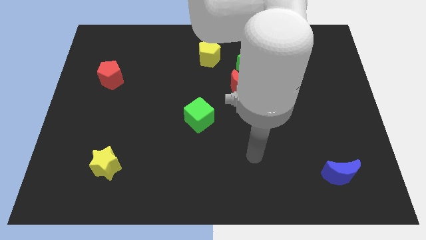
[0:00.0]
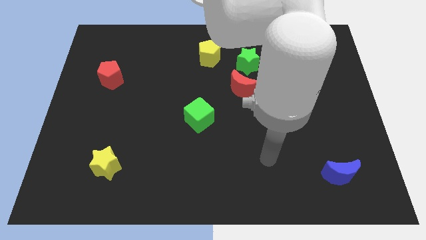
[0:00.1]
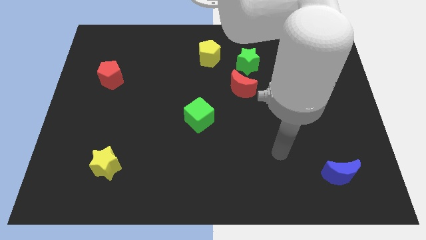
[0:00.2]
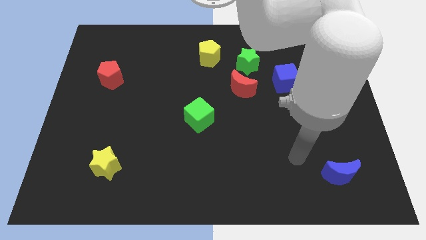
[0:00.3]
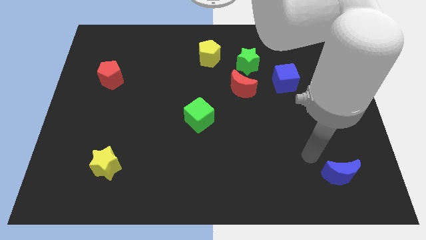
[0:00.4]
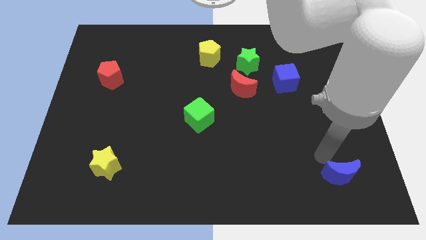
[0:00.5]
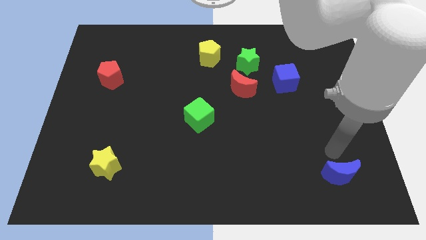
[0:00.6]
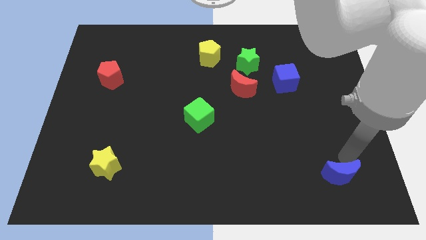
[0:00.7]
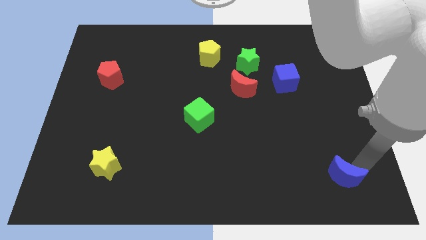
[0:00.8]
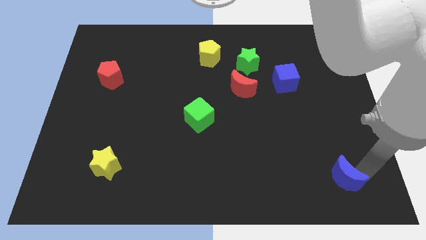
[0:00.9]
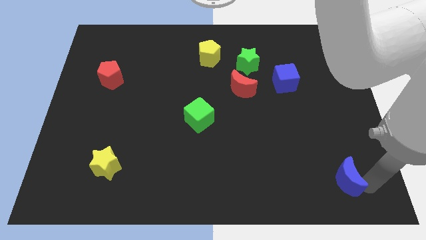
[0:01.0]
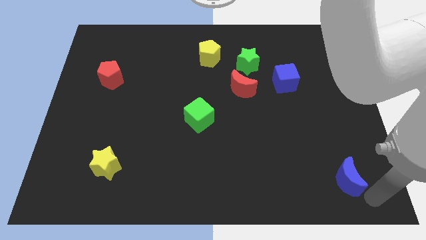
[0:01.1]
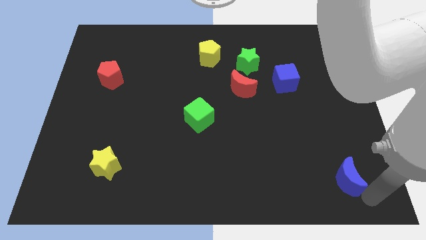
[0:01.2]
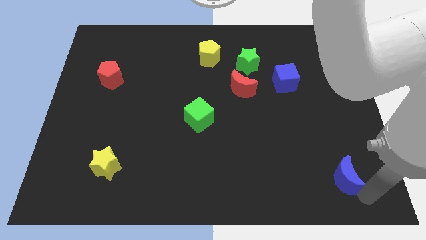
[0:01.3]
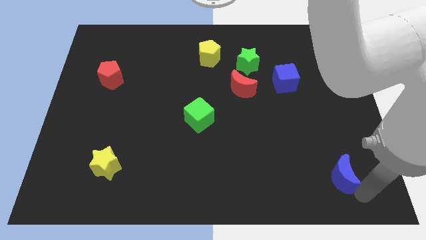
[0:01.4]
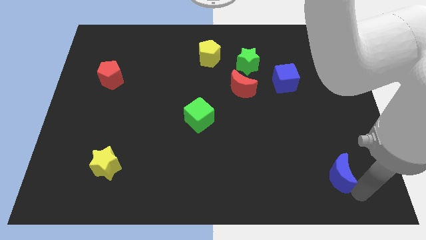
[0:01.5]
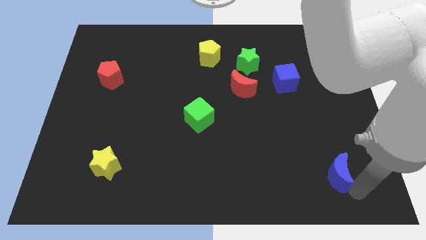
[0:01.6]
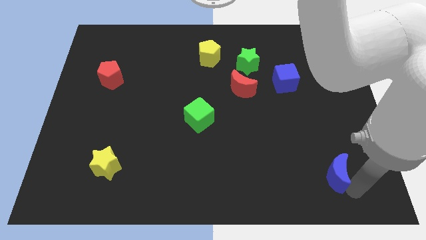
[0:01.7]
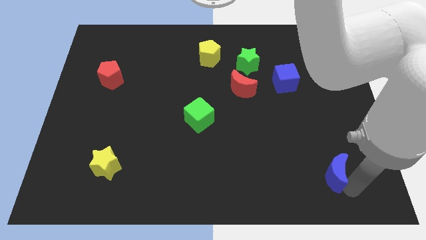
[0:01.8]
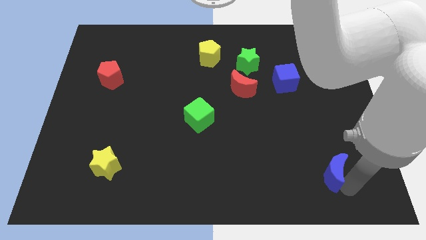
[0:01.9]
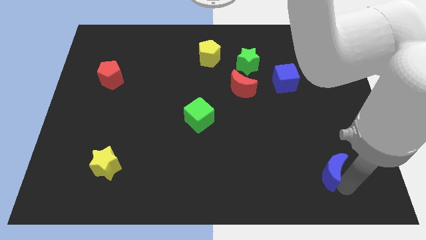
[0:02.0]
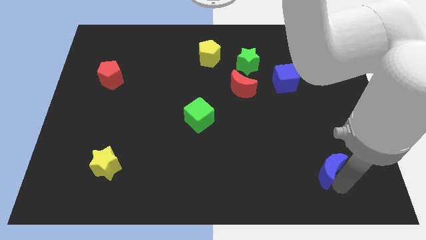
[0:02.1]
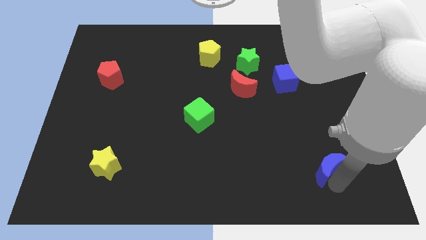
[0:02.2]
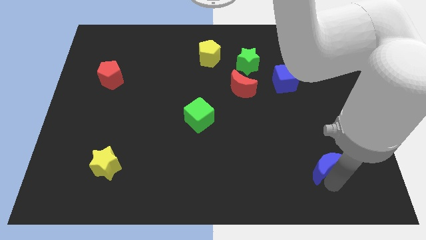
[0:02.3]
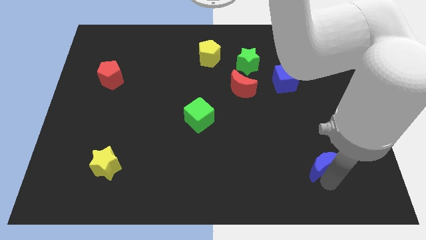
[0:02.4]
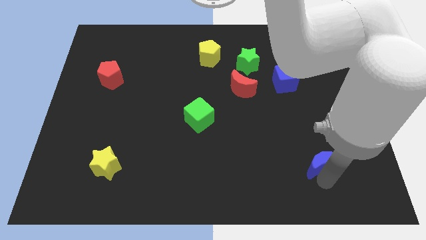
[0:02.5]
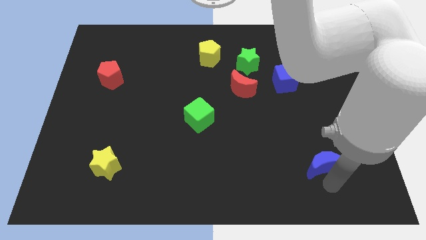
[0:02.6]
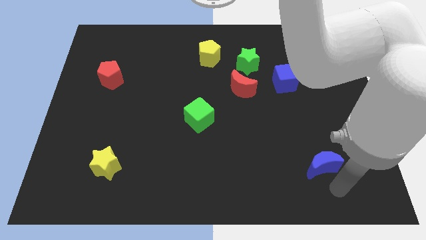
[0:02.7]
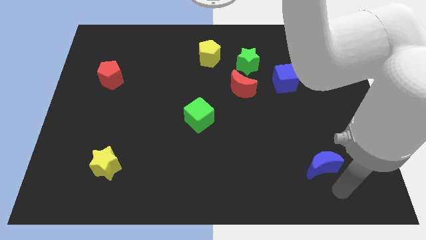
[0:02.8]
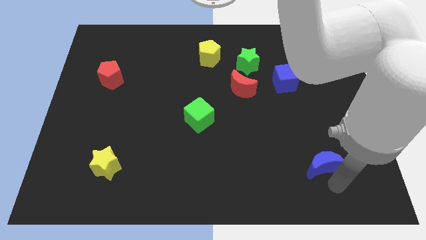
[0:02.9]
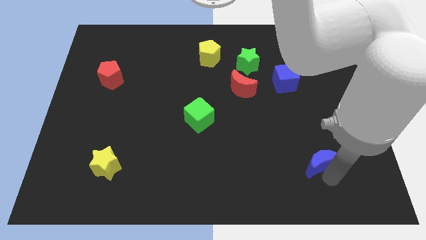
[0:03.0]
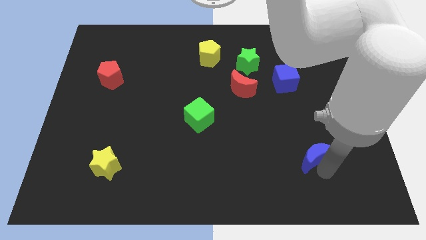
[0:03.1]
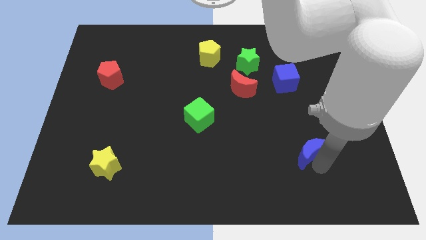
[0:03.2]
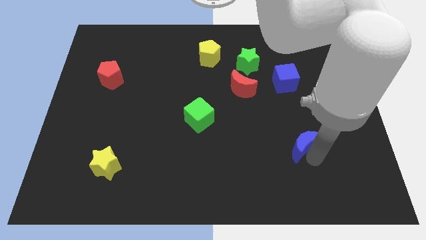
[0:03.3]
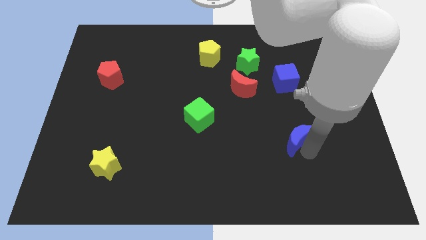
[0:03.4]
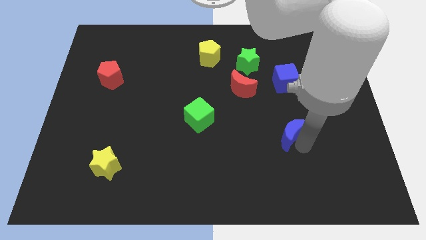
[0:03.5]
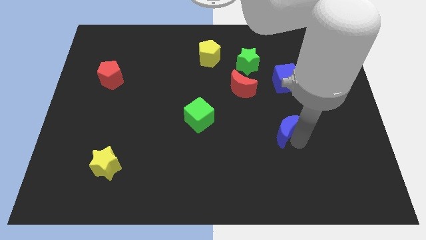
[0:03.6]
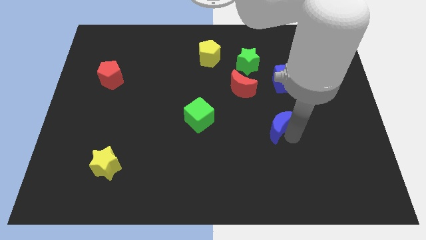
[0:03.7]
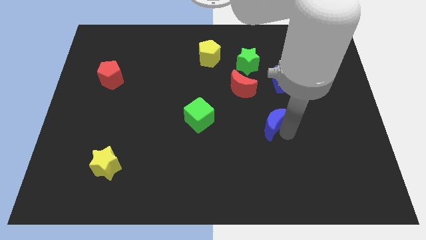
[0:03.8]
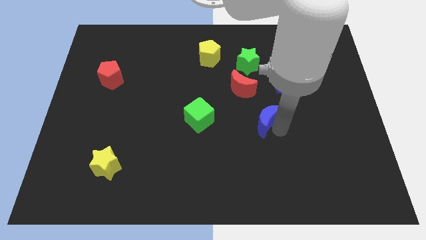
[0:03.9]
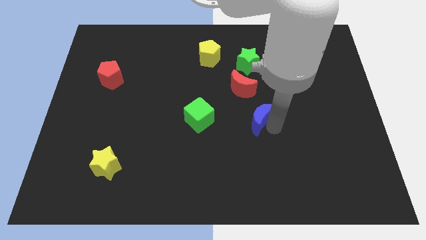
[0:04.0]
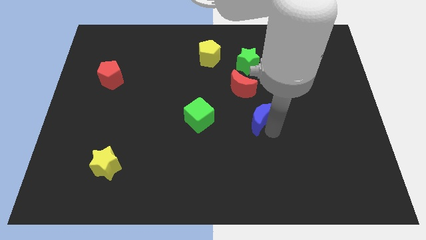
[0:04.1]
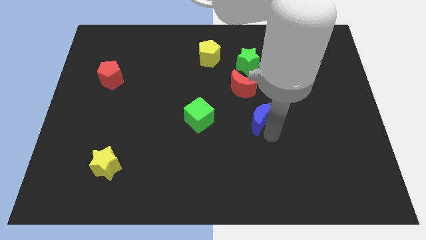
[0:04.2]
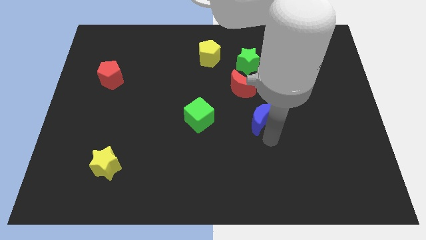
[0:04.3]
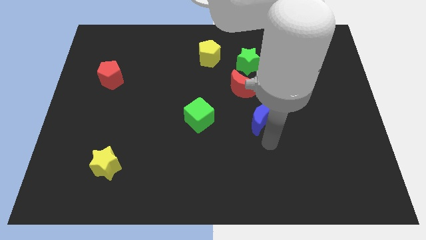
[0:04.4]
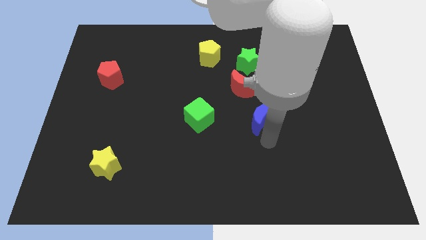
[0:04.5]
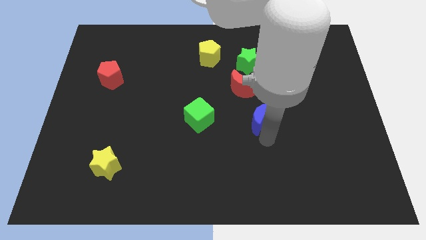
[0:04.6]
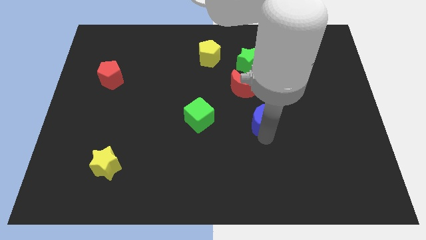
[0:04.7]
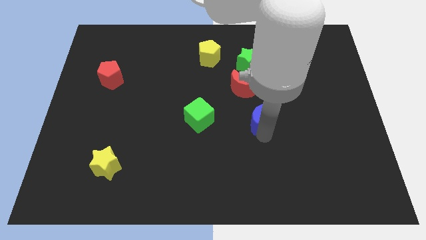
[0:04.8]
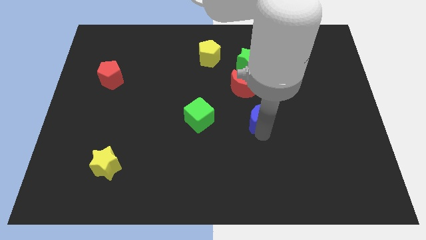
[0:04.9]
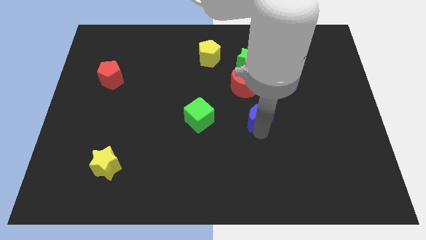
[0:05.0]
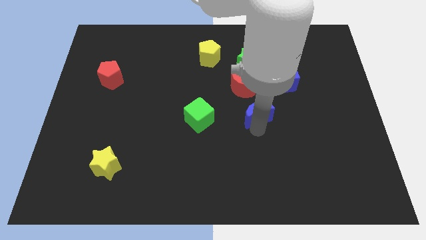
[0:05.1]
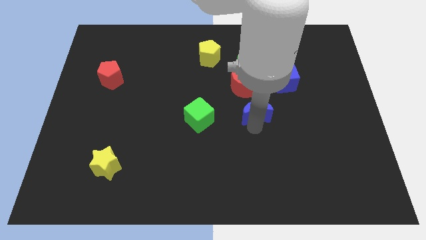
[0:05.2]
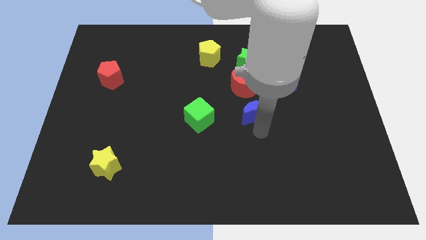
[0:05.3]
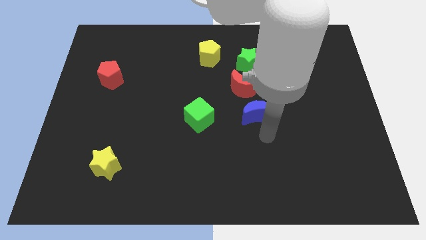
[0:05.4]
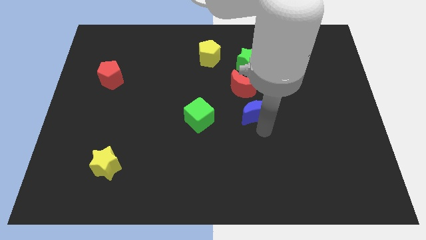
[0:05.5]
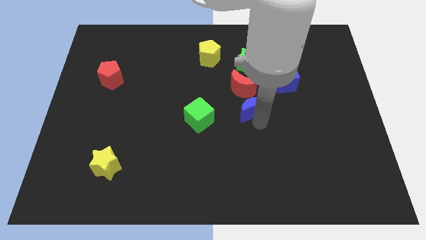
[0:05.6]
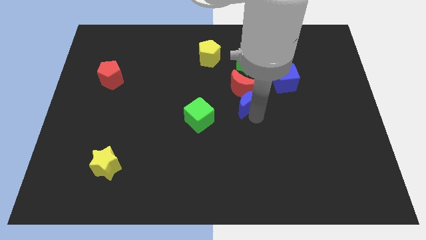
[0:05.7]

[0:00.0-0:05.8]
push the blue moon next to the red moon
